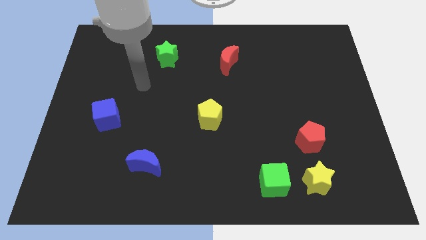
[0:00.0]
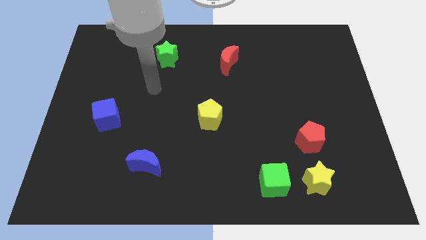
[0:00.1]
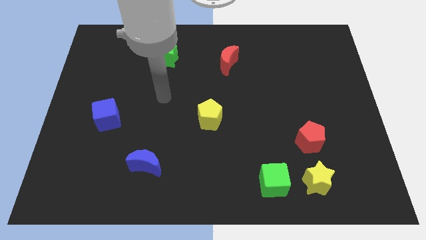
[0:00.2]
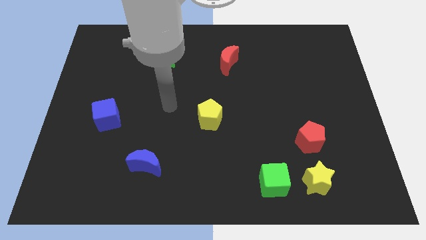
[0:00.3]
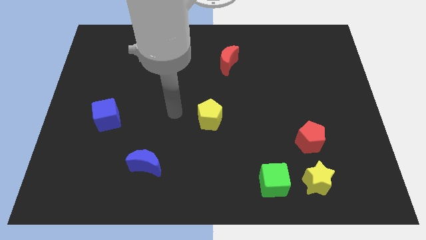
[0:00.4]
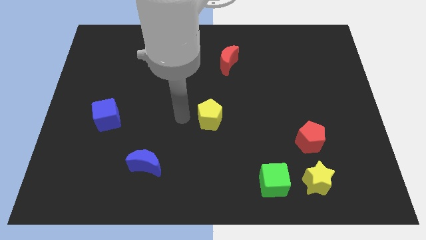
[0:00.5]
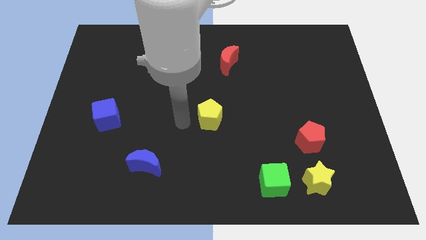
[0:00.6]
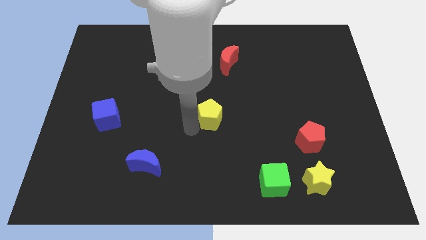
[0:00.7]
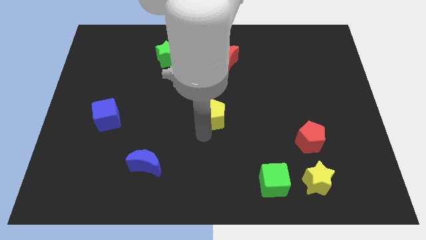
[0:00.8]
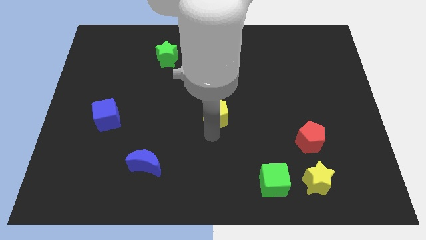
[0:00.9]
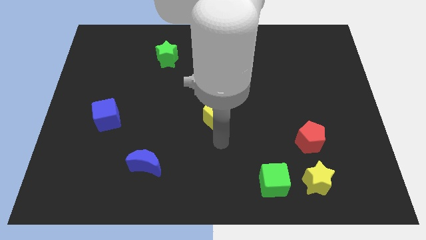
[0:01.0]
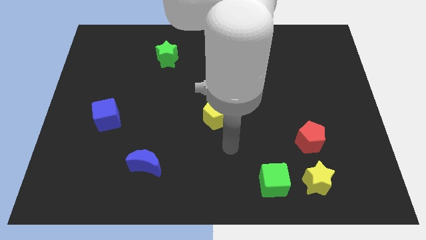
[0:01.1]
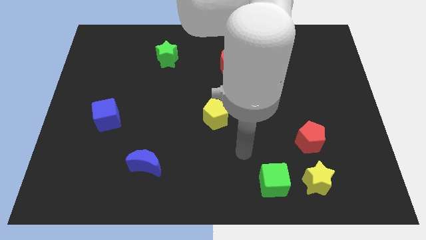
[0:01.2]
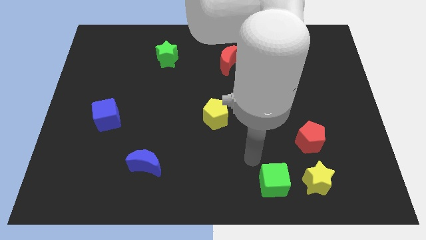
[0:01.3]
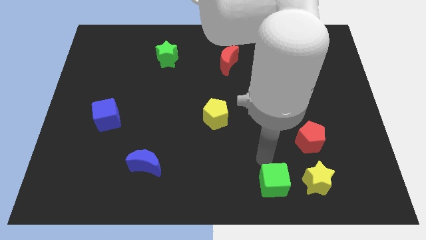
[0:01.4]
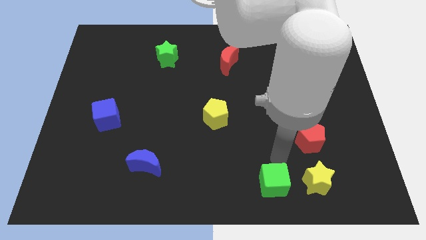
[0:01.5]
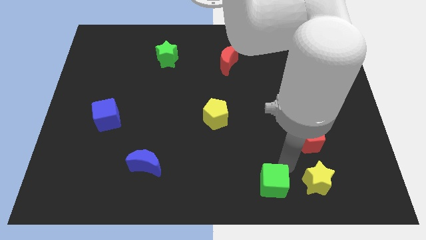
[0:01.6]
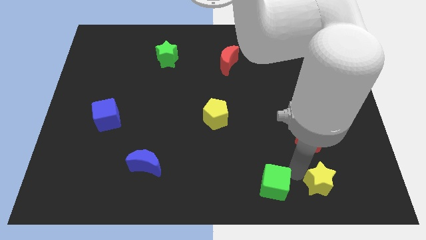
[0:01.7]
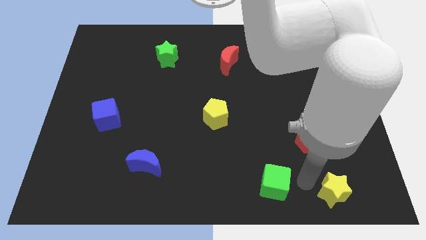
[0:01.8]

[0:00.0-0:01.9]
pull the green cube apart from the yellow star

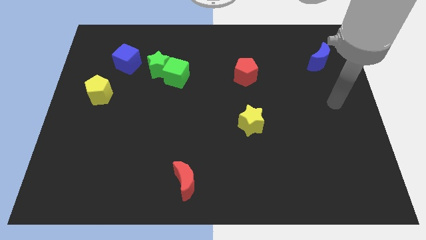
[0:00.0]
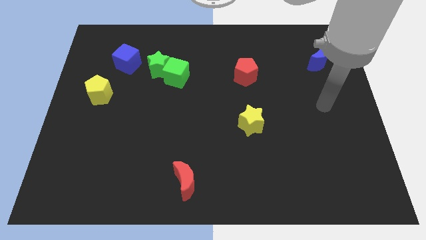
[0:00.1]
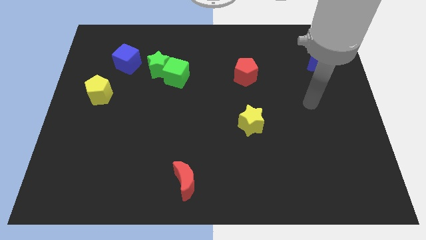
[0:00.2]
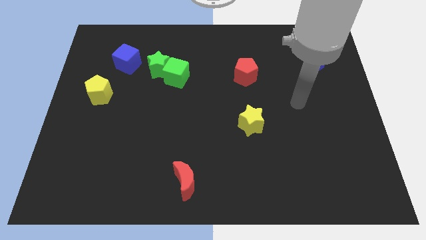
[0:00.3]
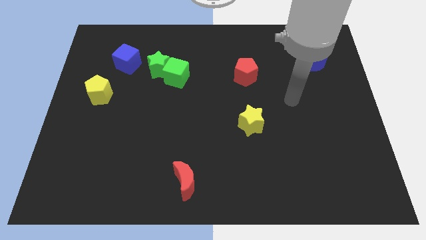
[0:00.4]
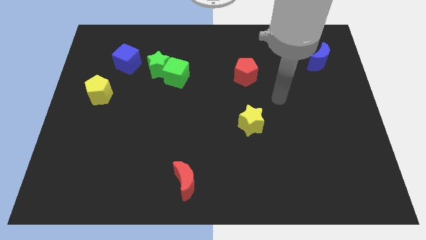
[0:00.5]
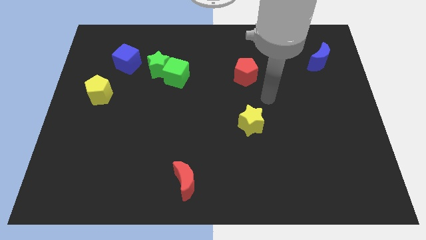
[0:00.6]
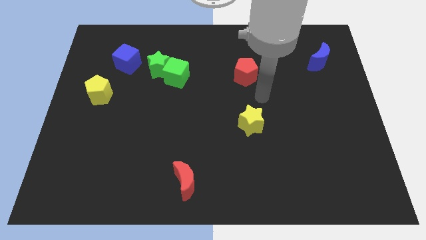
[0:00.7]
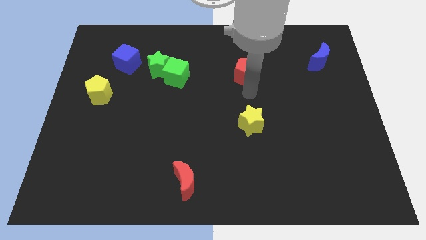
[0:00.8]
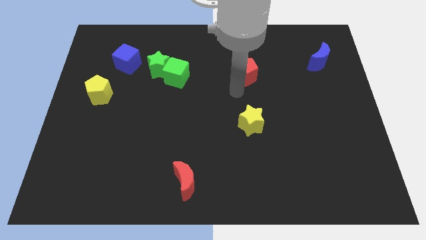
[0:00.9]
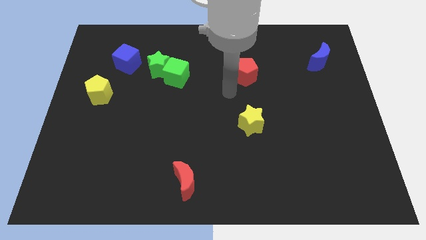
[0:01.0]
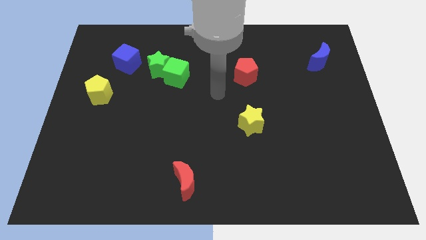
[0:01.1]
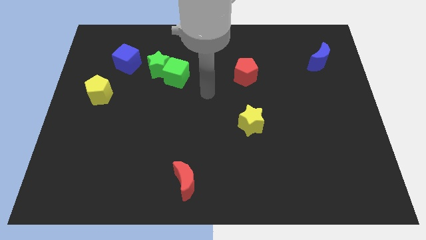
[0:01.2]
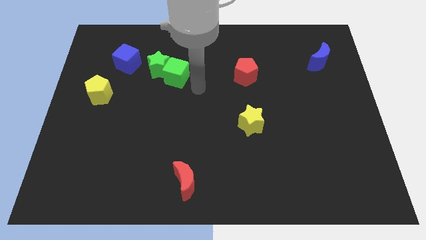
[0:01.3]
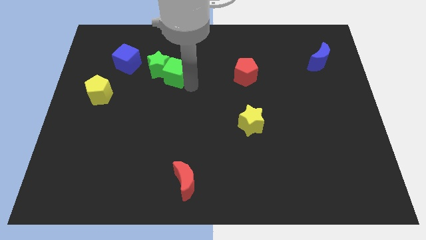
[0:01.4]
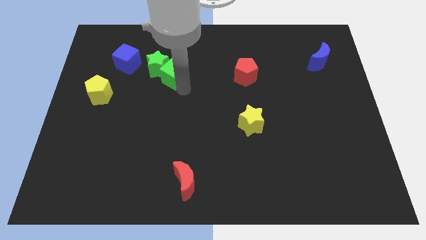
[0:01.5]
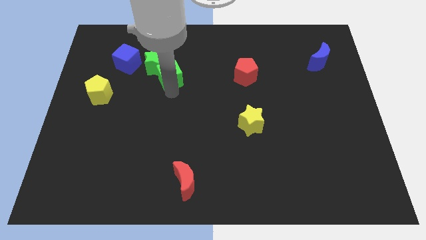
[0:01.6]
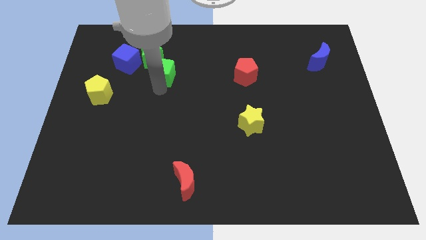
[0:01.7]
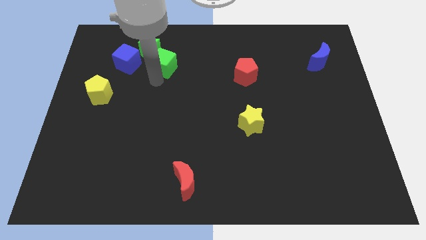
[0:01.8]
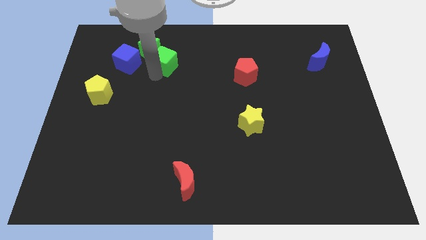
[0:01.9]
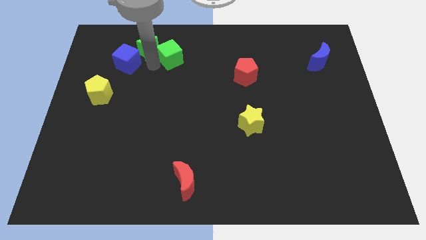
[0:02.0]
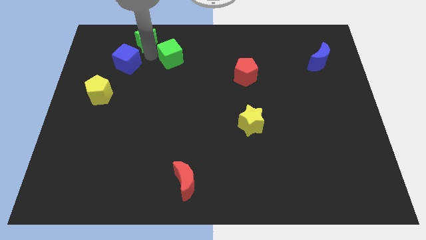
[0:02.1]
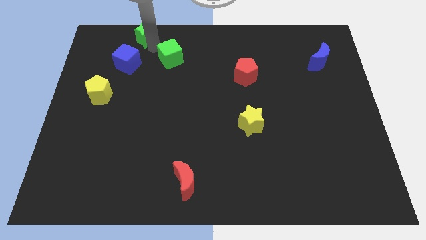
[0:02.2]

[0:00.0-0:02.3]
separate the green cube from the green star

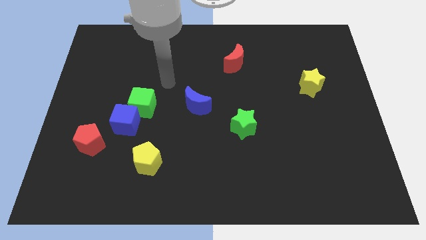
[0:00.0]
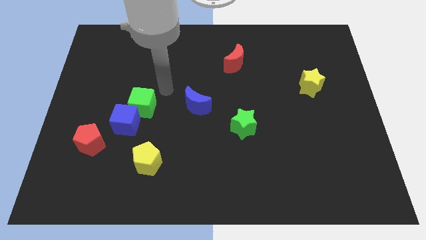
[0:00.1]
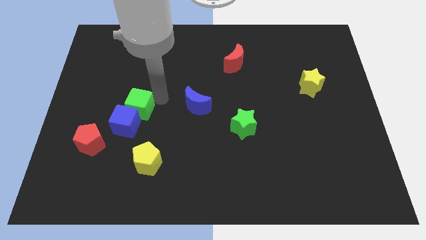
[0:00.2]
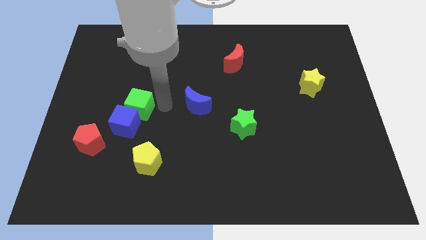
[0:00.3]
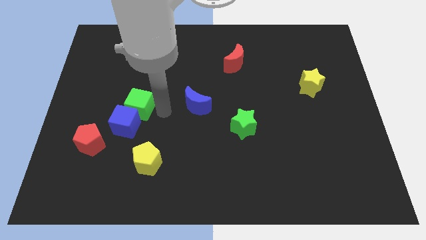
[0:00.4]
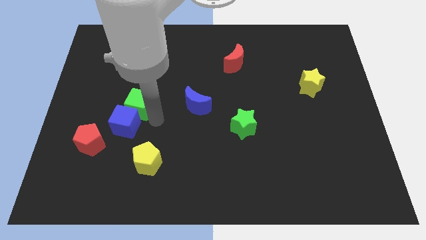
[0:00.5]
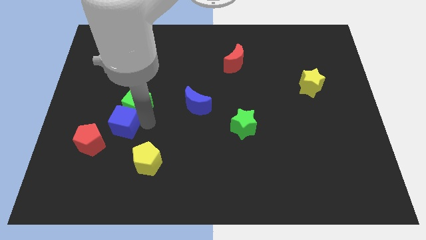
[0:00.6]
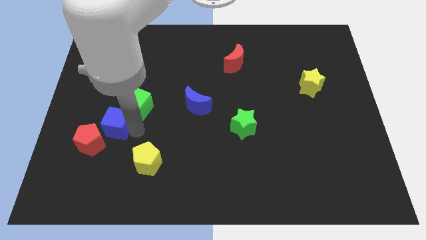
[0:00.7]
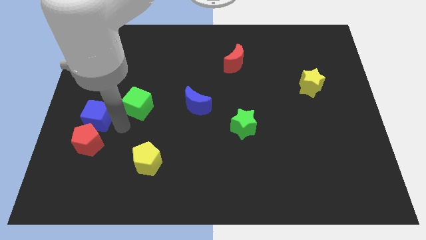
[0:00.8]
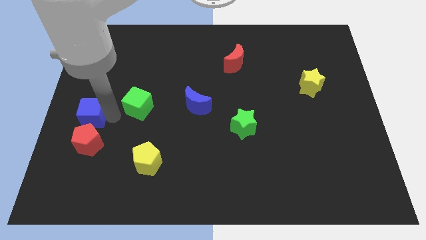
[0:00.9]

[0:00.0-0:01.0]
pull the green cube apart from the blue cube

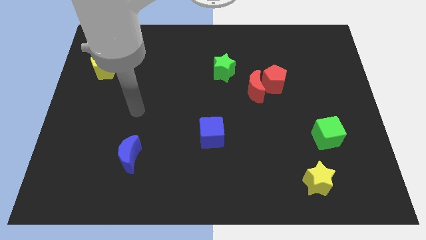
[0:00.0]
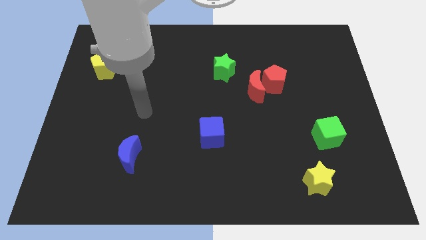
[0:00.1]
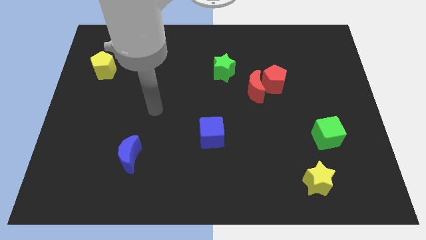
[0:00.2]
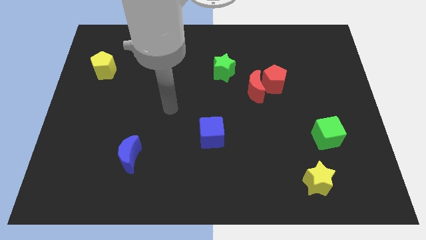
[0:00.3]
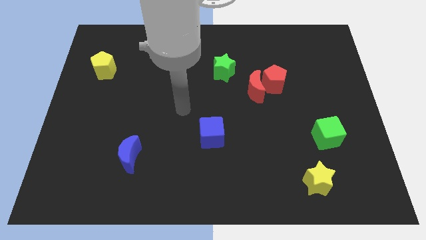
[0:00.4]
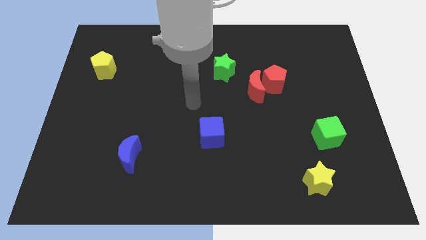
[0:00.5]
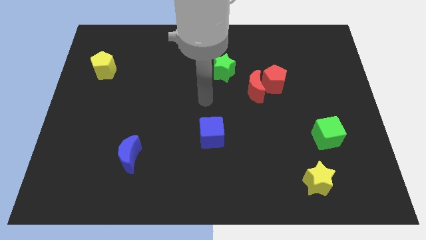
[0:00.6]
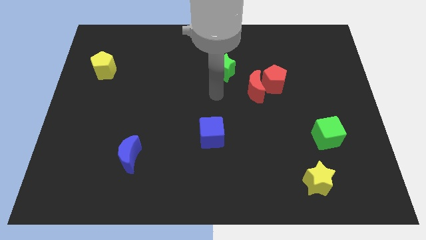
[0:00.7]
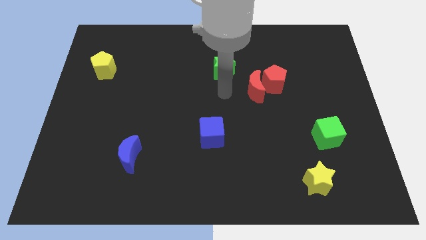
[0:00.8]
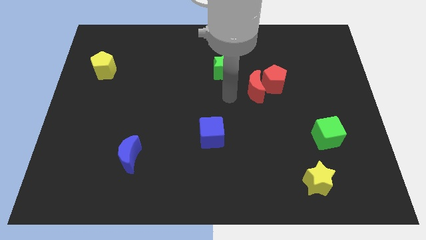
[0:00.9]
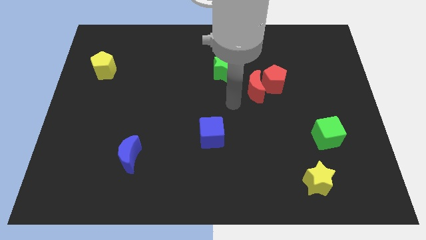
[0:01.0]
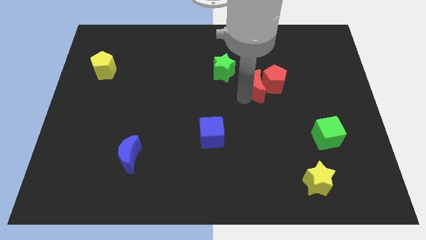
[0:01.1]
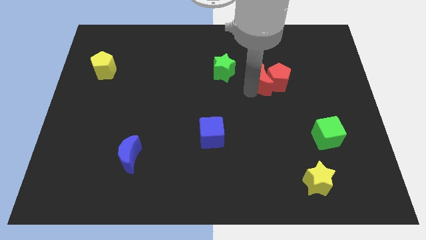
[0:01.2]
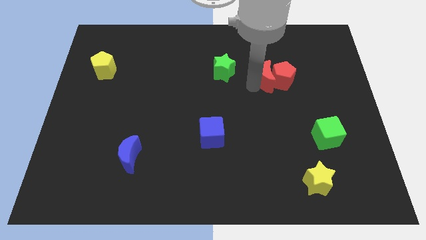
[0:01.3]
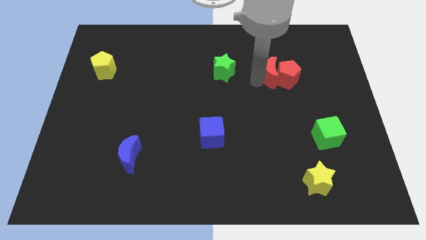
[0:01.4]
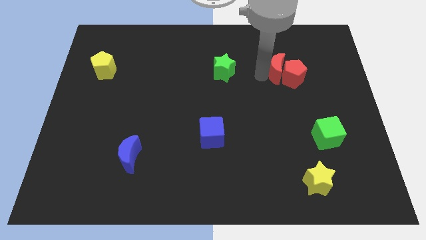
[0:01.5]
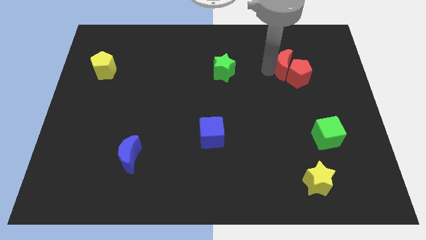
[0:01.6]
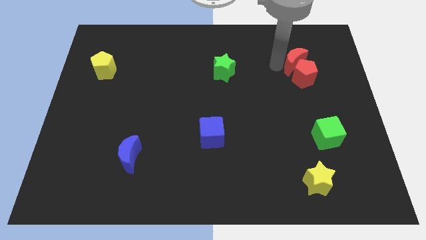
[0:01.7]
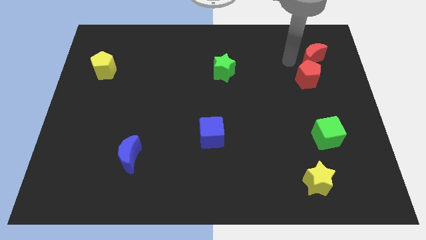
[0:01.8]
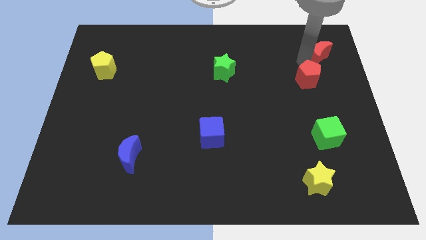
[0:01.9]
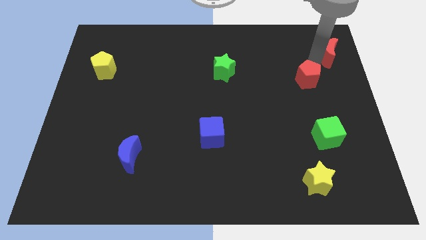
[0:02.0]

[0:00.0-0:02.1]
move the red pentagon away from the red moon

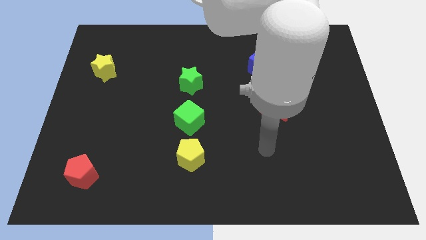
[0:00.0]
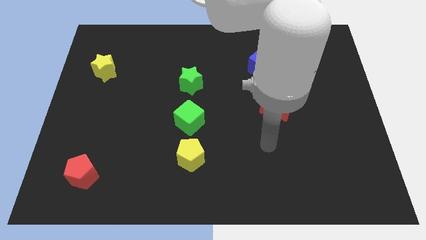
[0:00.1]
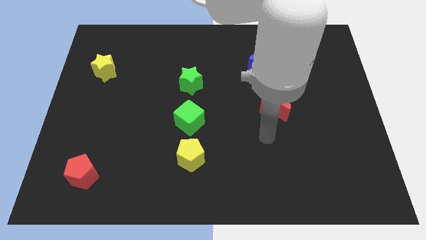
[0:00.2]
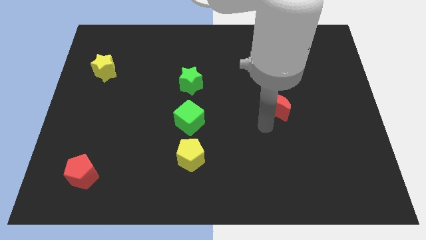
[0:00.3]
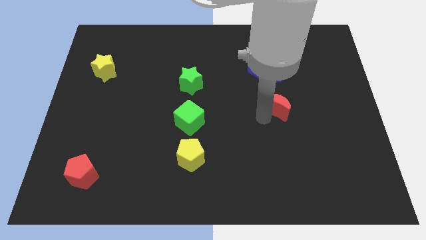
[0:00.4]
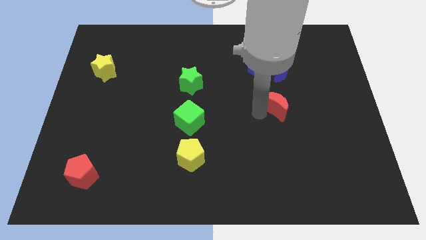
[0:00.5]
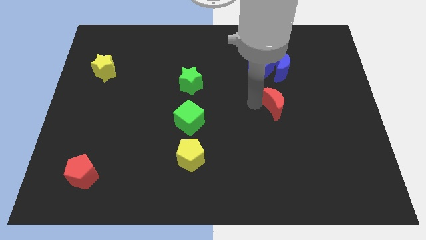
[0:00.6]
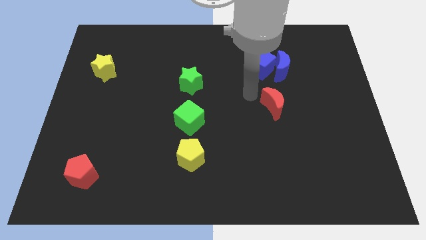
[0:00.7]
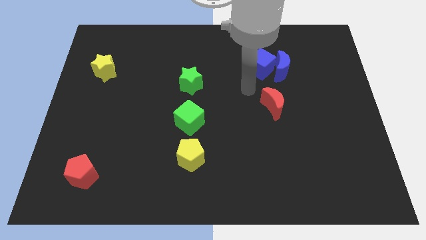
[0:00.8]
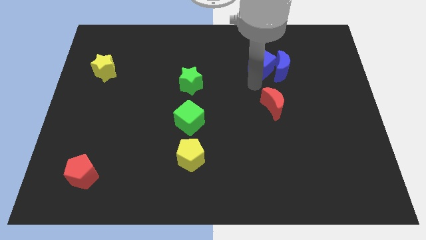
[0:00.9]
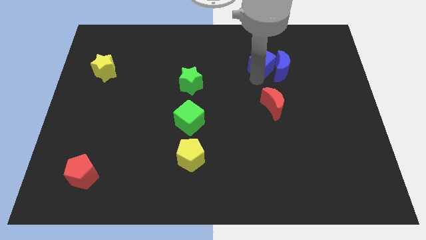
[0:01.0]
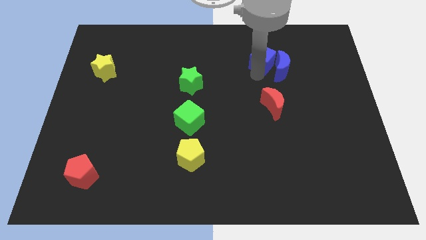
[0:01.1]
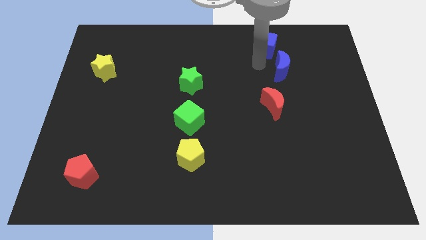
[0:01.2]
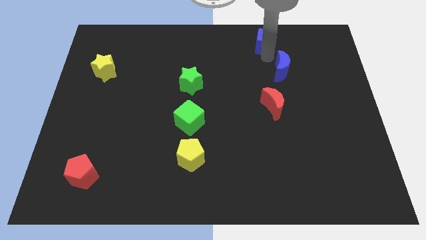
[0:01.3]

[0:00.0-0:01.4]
move the blue moon away from the blue cube

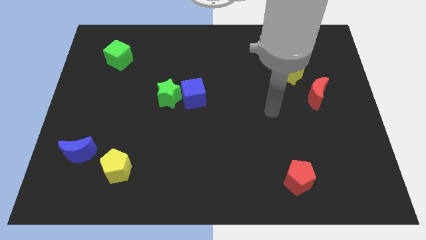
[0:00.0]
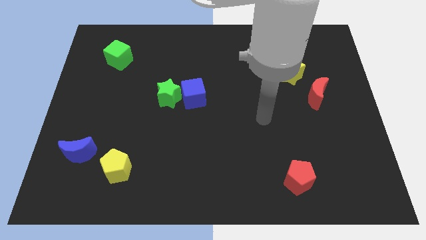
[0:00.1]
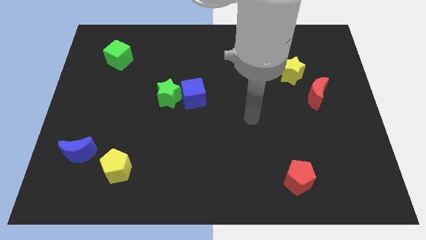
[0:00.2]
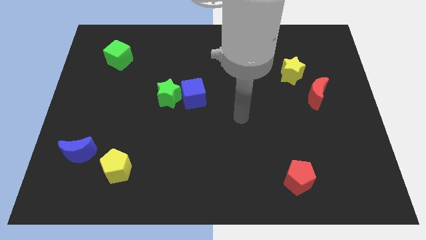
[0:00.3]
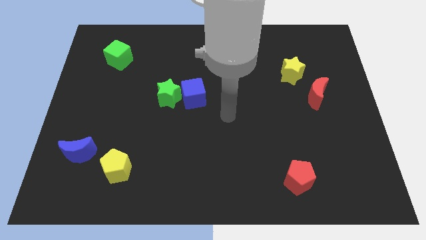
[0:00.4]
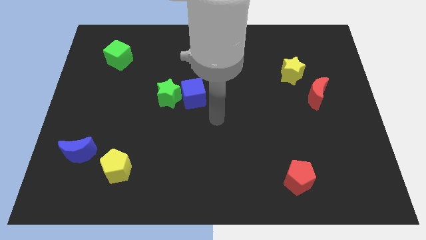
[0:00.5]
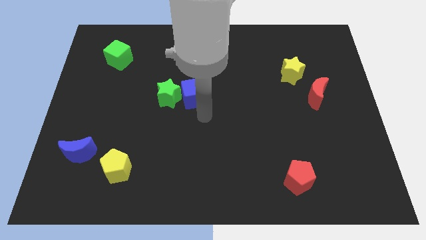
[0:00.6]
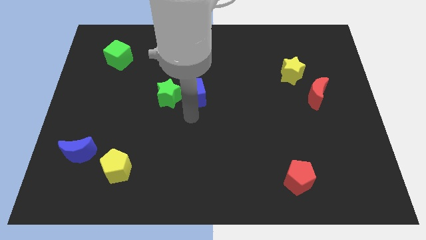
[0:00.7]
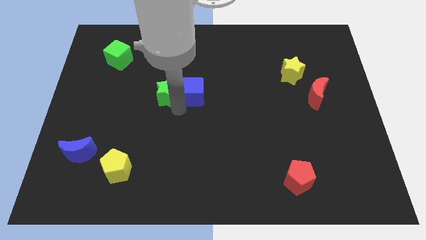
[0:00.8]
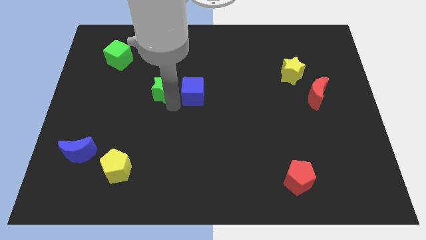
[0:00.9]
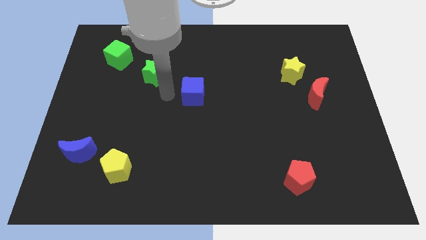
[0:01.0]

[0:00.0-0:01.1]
separate the blue cube from the green star
